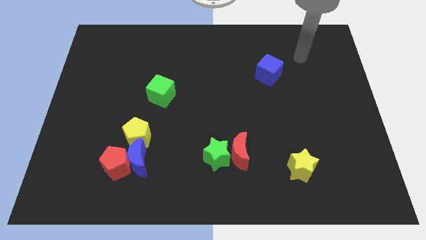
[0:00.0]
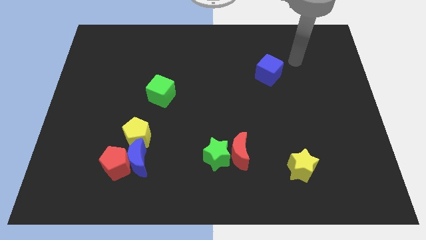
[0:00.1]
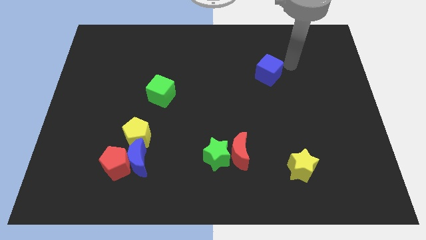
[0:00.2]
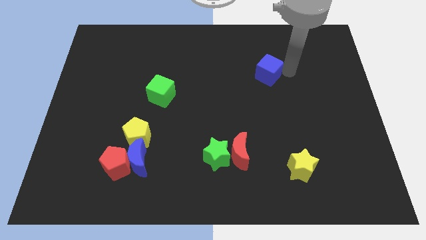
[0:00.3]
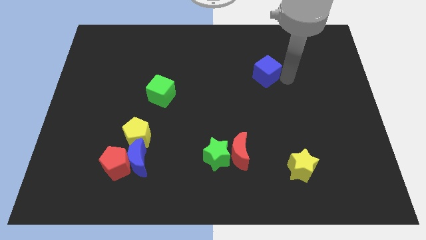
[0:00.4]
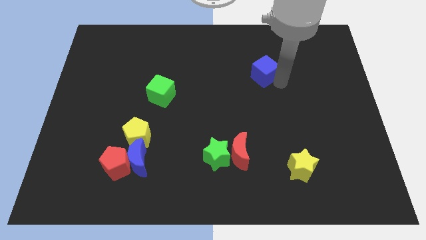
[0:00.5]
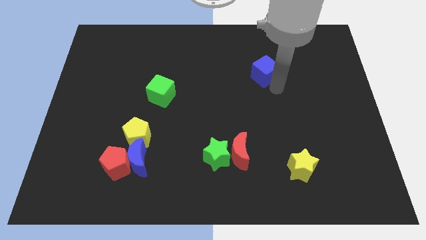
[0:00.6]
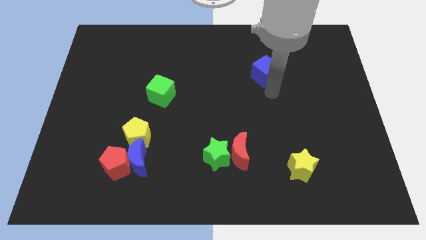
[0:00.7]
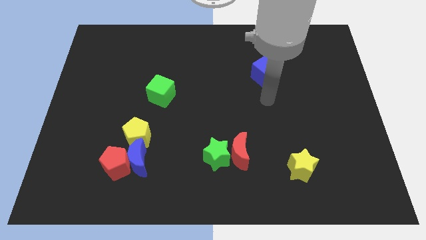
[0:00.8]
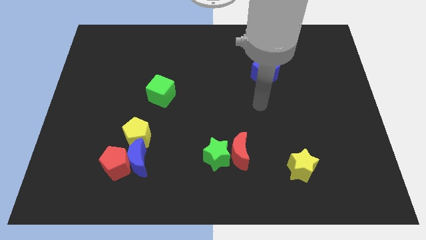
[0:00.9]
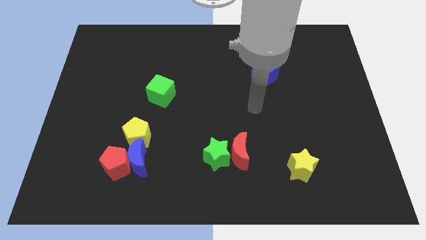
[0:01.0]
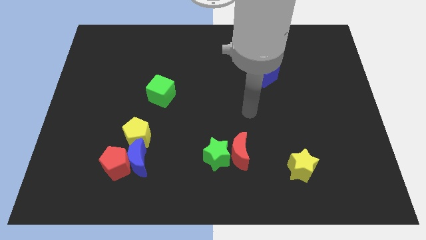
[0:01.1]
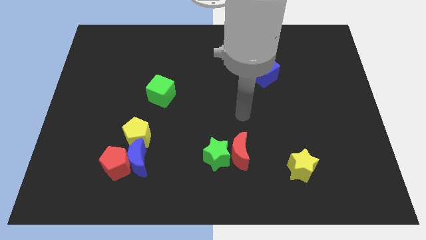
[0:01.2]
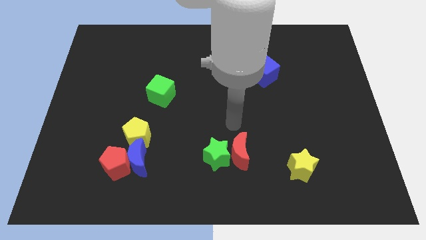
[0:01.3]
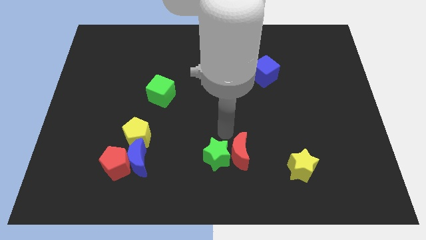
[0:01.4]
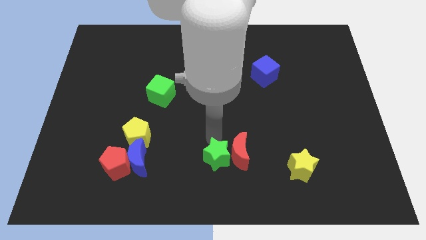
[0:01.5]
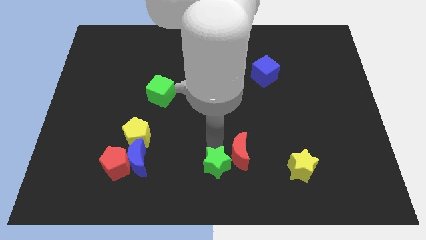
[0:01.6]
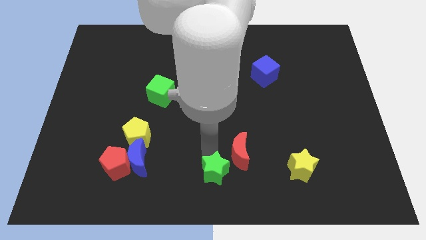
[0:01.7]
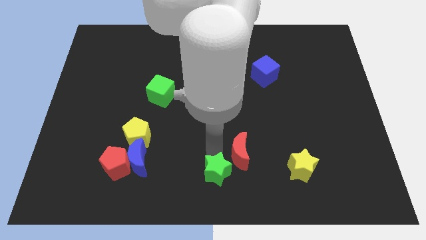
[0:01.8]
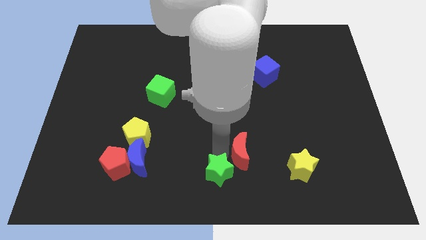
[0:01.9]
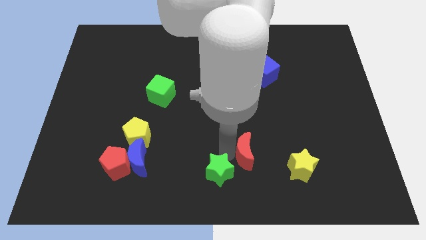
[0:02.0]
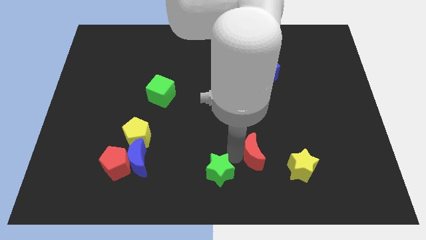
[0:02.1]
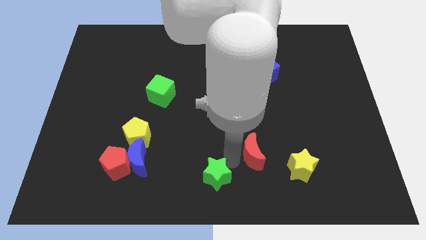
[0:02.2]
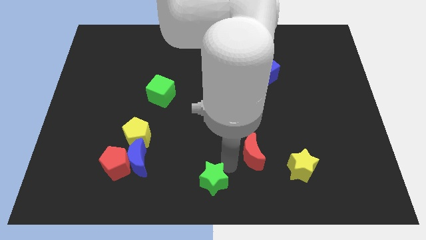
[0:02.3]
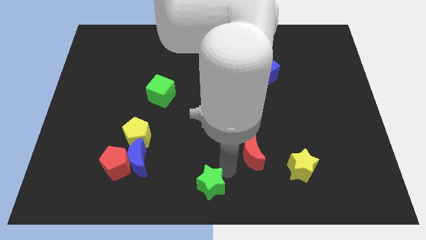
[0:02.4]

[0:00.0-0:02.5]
separate the red moon from the green star

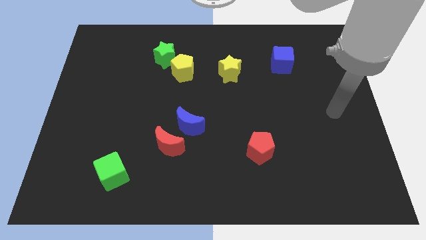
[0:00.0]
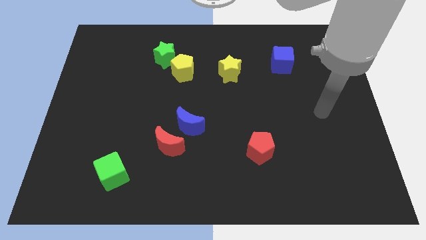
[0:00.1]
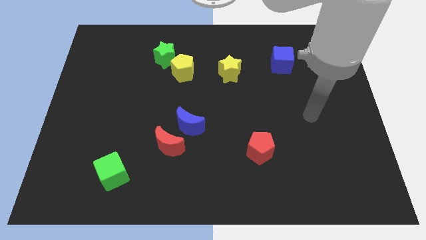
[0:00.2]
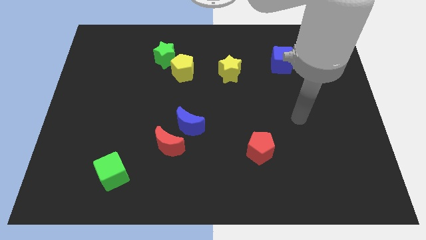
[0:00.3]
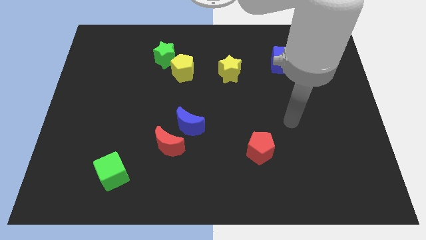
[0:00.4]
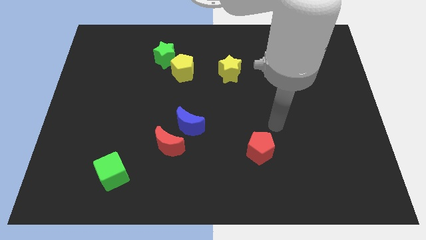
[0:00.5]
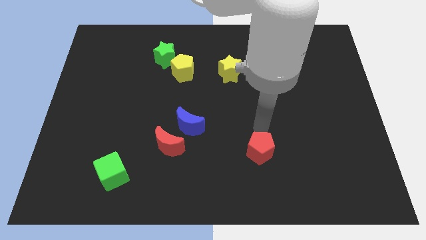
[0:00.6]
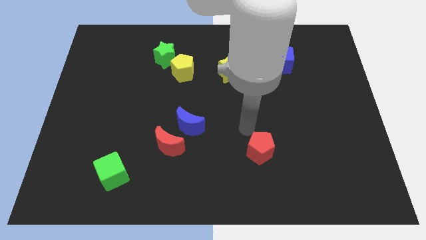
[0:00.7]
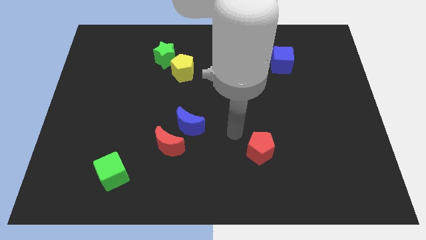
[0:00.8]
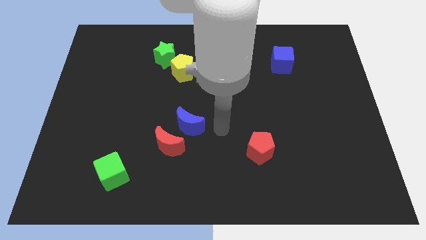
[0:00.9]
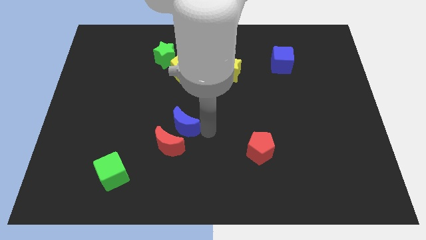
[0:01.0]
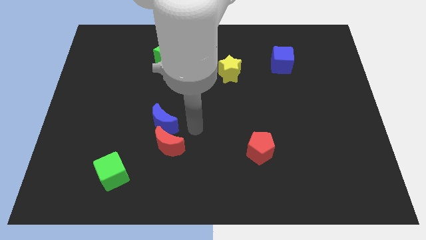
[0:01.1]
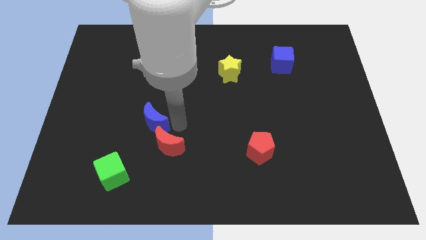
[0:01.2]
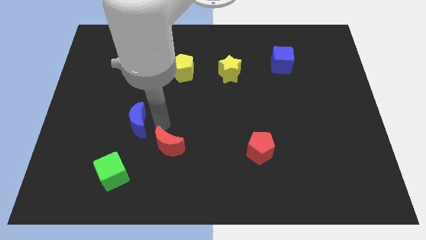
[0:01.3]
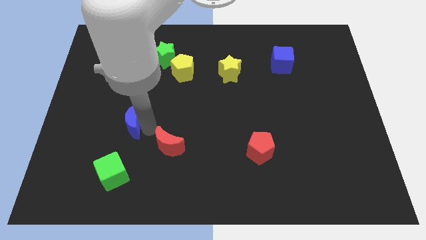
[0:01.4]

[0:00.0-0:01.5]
separate the red moon from the blue moon

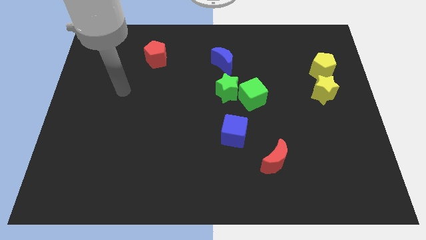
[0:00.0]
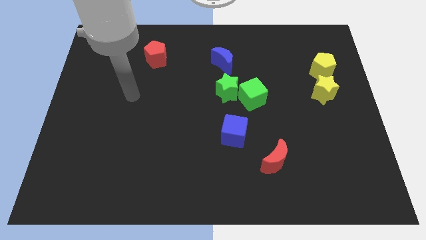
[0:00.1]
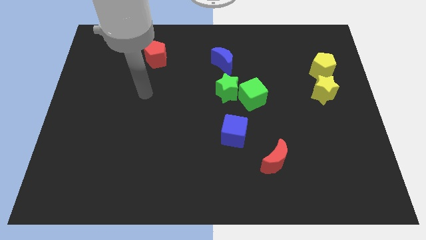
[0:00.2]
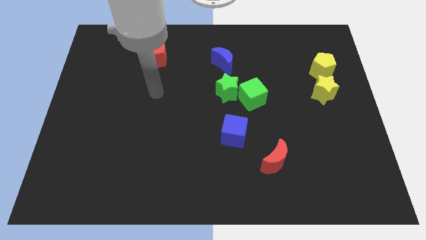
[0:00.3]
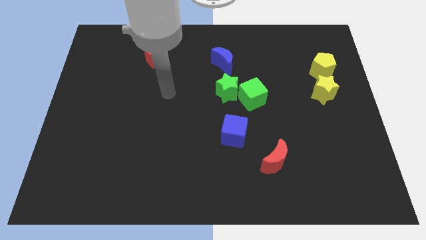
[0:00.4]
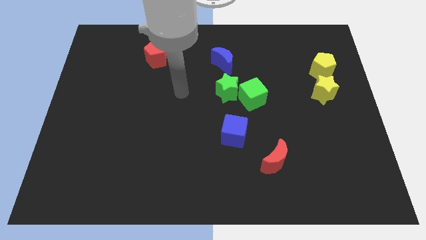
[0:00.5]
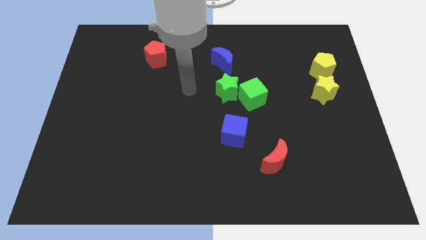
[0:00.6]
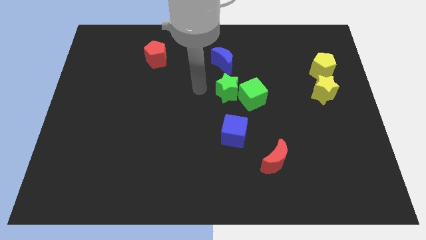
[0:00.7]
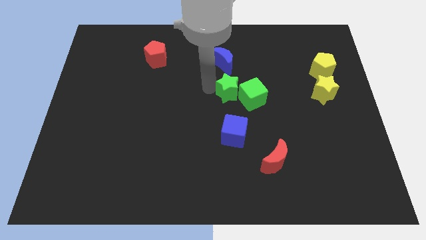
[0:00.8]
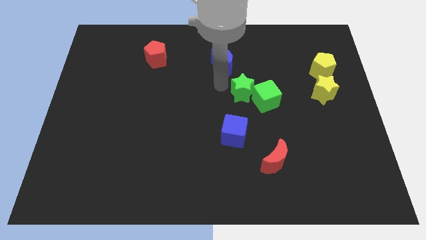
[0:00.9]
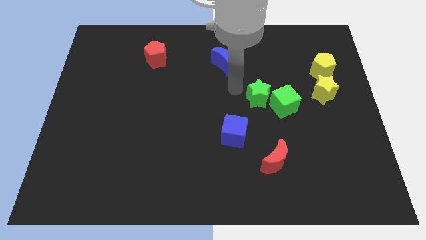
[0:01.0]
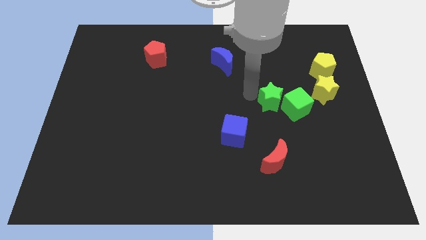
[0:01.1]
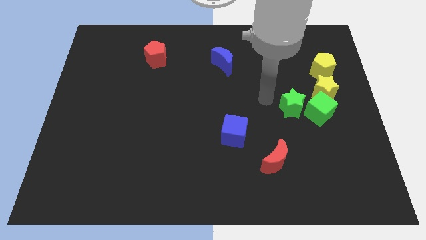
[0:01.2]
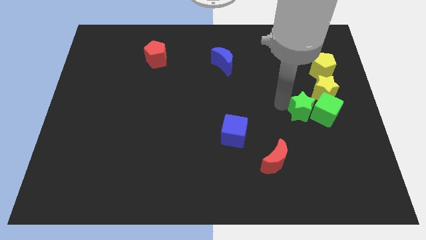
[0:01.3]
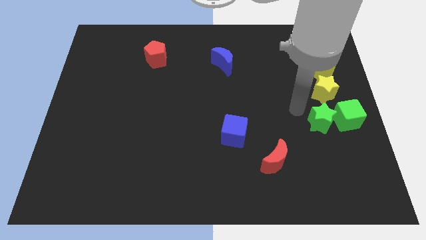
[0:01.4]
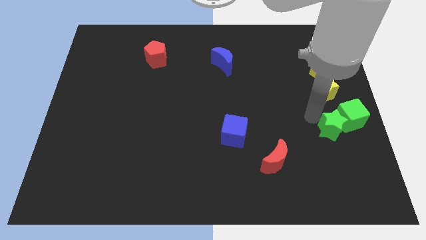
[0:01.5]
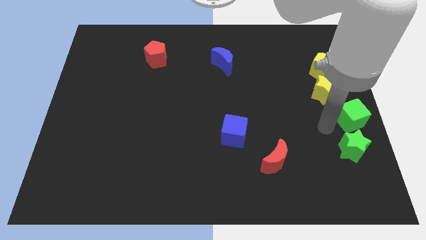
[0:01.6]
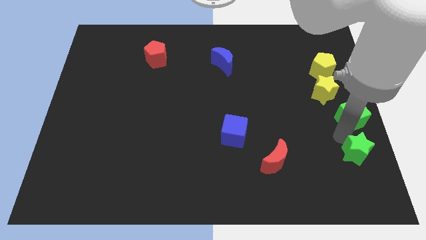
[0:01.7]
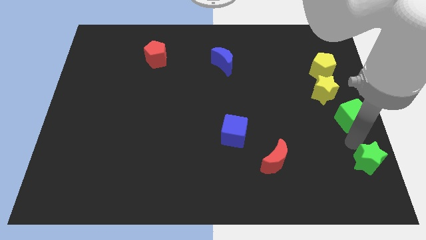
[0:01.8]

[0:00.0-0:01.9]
separate the green cube from the green star

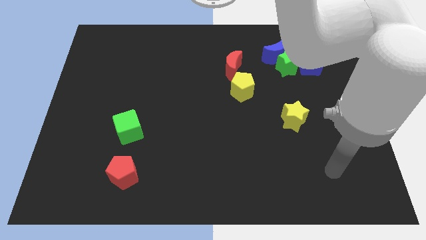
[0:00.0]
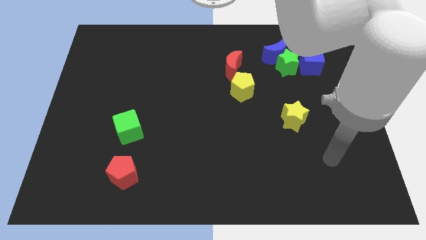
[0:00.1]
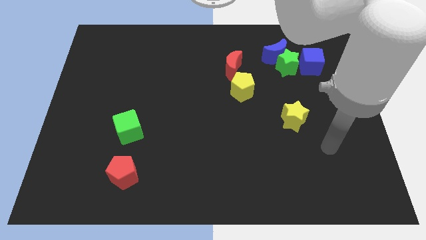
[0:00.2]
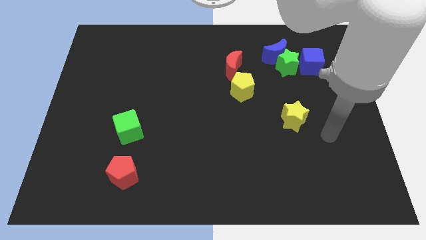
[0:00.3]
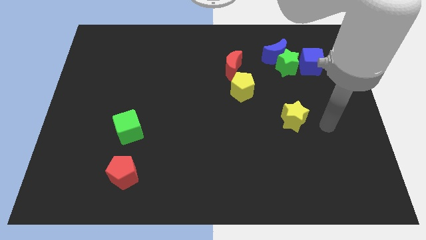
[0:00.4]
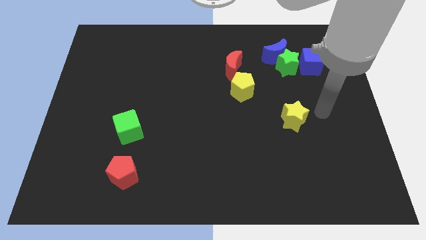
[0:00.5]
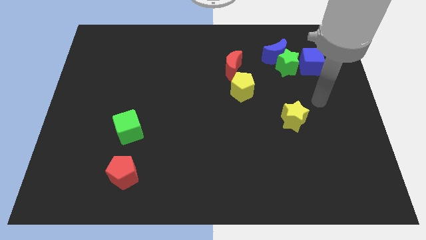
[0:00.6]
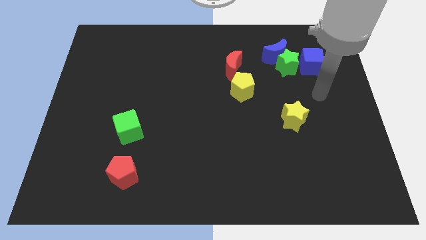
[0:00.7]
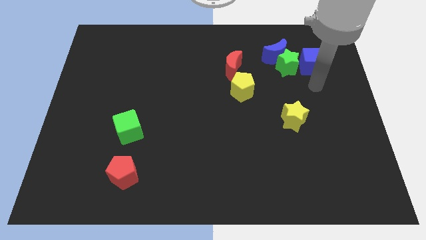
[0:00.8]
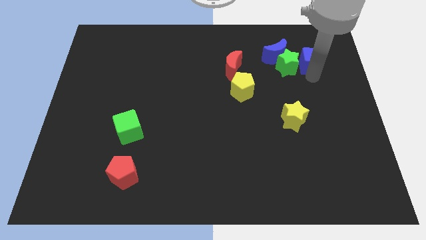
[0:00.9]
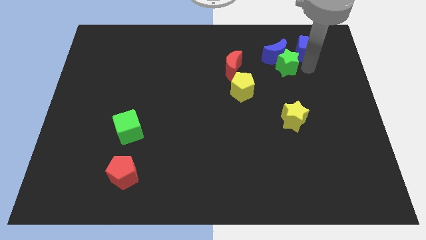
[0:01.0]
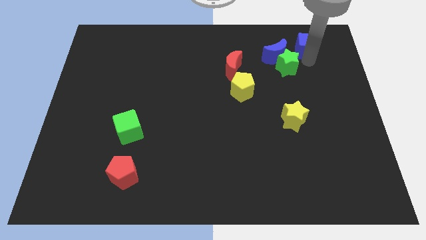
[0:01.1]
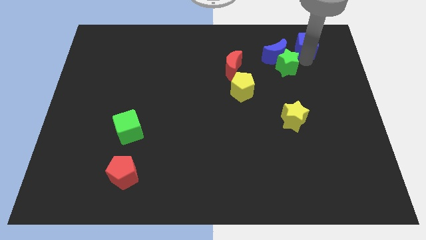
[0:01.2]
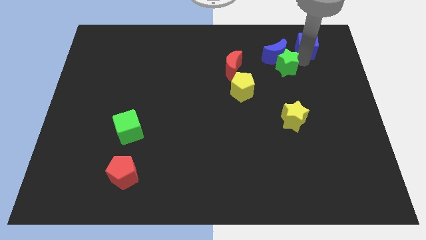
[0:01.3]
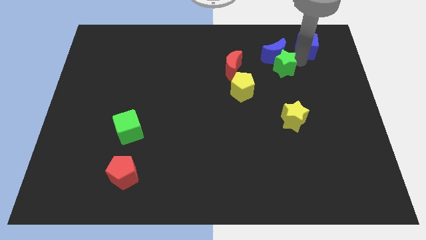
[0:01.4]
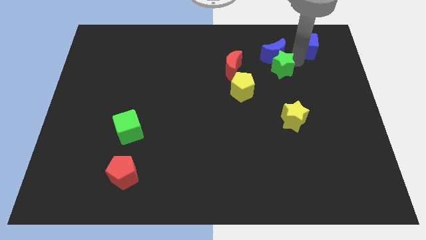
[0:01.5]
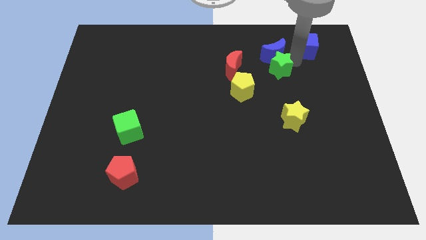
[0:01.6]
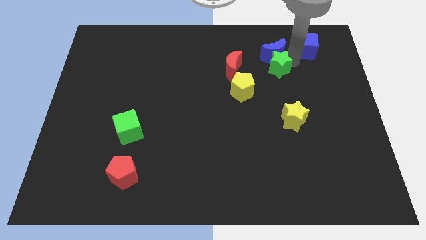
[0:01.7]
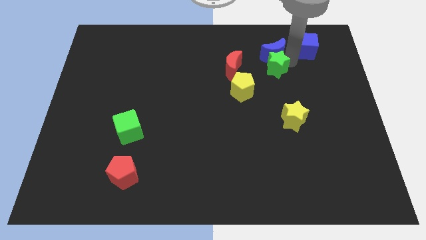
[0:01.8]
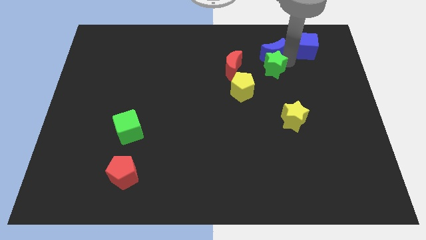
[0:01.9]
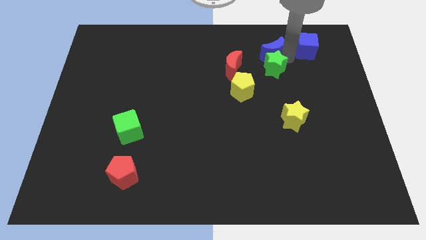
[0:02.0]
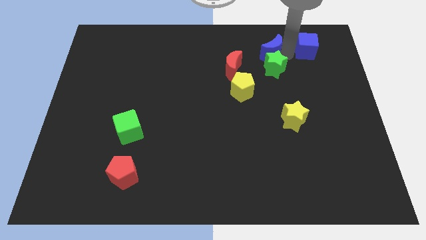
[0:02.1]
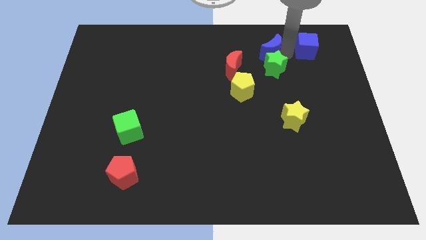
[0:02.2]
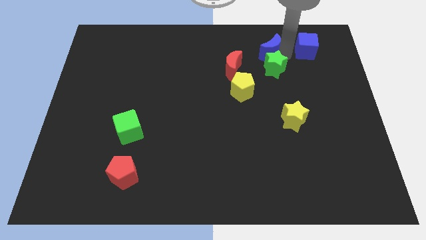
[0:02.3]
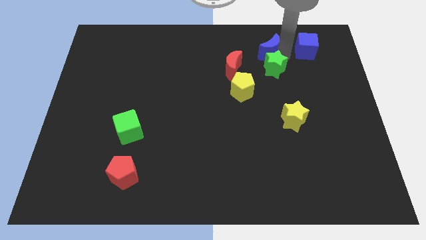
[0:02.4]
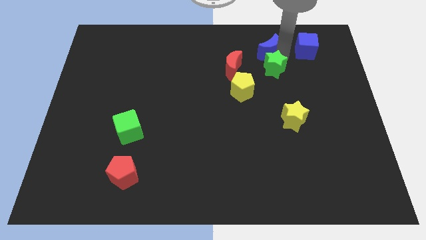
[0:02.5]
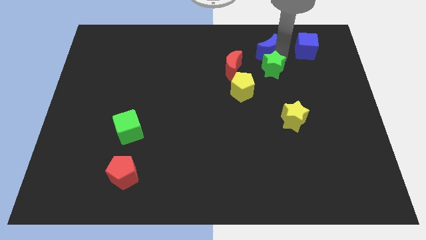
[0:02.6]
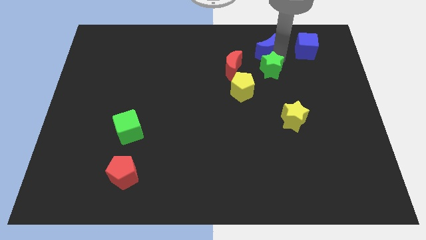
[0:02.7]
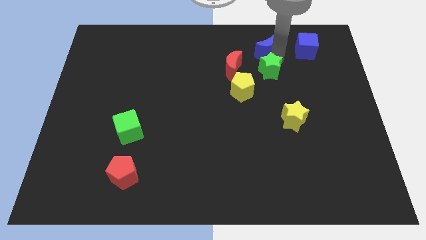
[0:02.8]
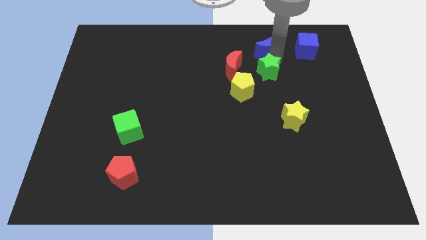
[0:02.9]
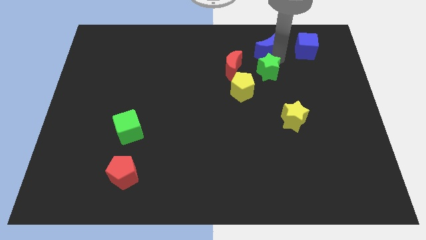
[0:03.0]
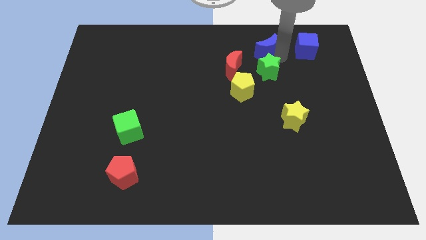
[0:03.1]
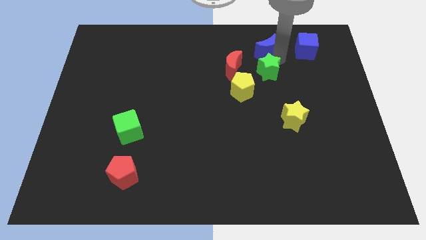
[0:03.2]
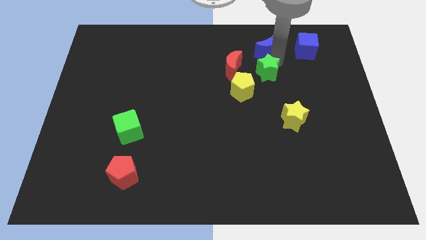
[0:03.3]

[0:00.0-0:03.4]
pull the green star apart from the blue moon and blue cube
